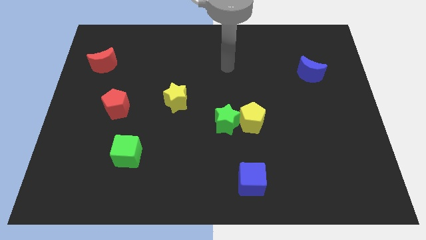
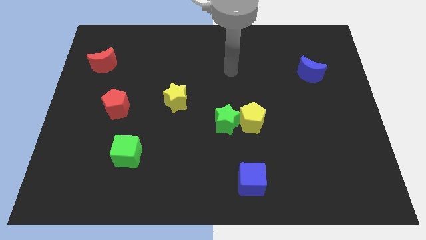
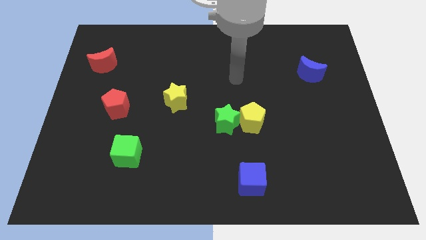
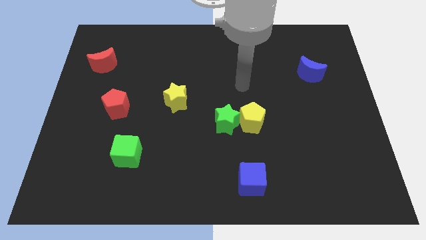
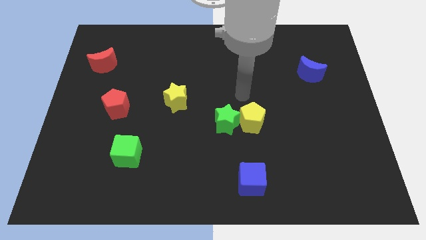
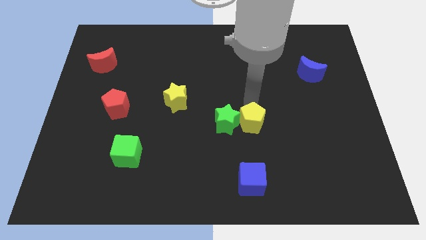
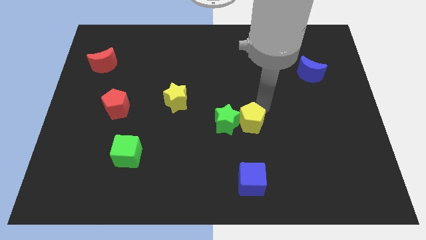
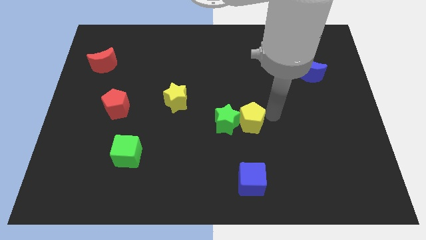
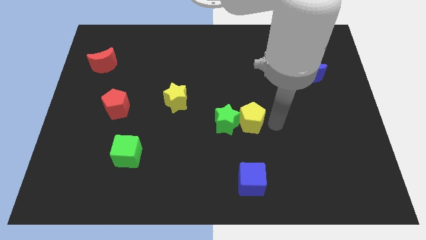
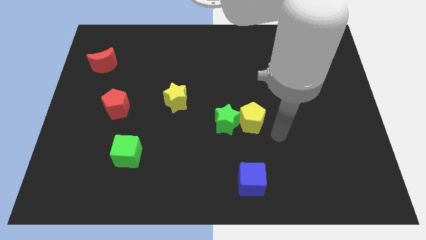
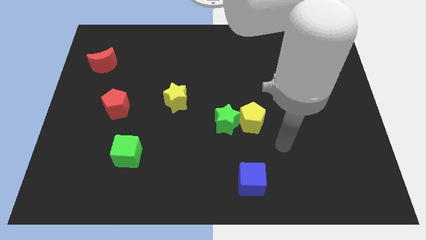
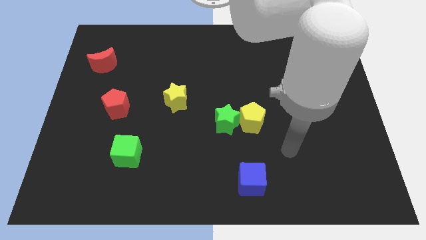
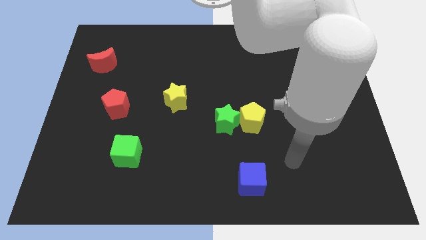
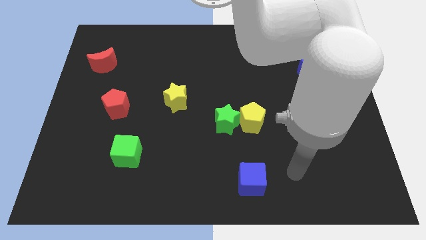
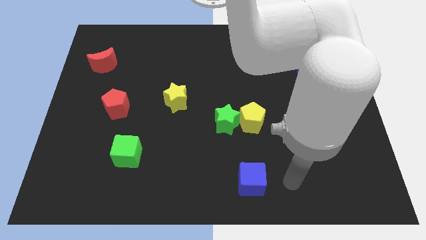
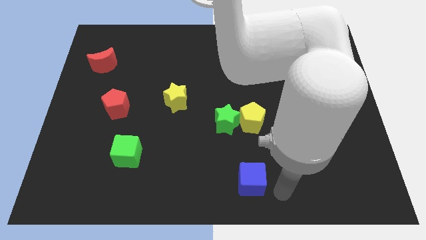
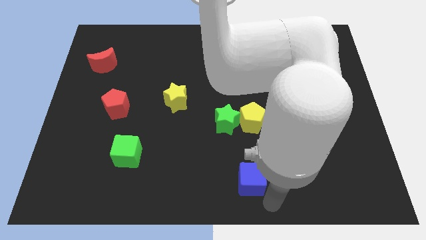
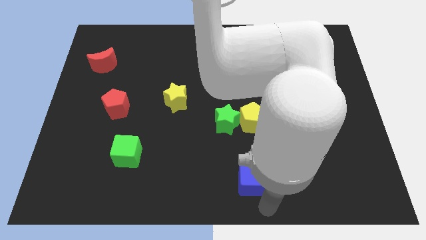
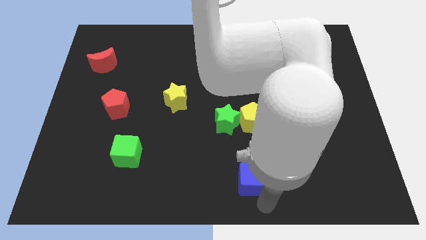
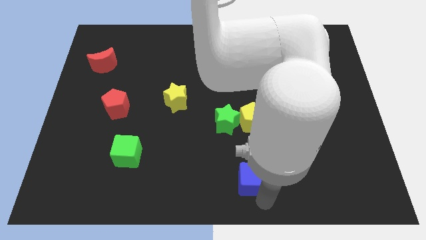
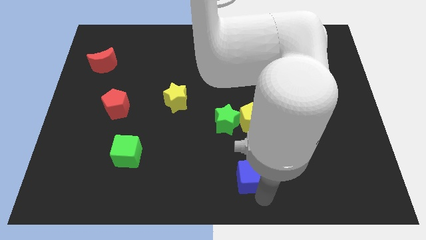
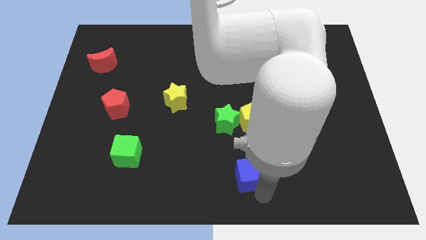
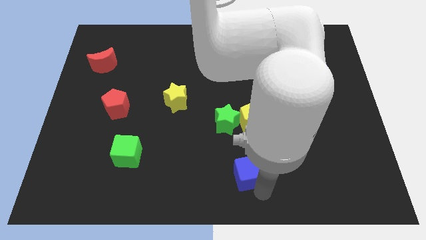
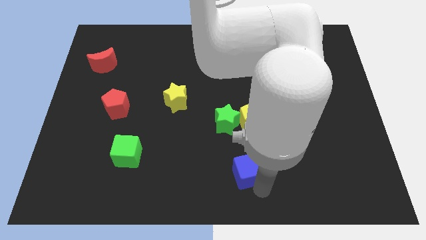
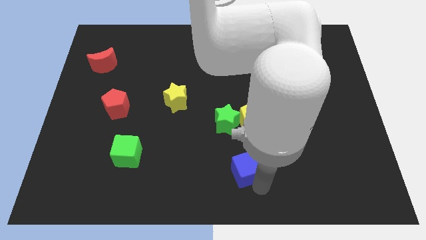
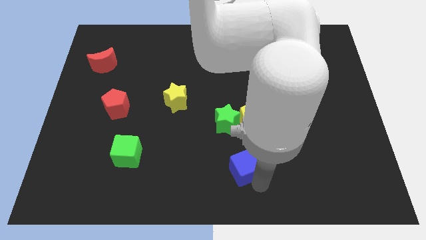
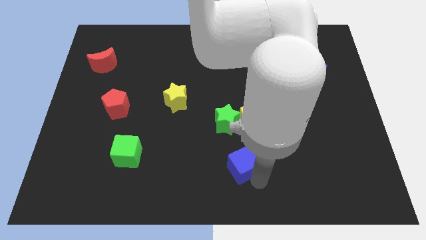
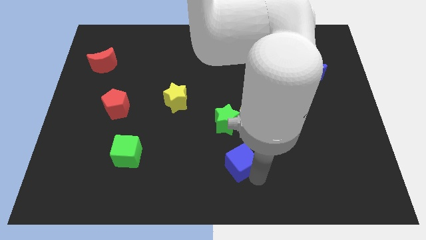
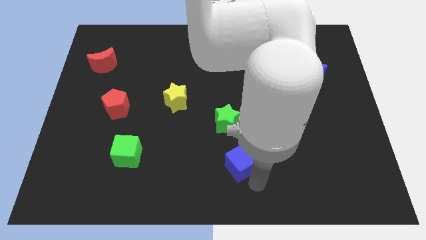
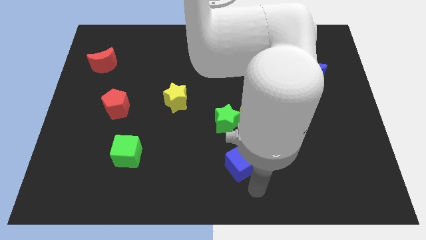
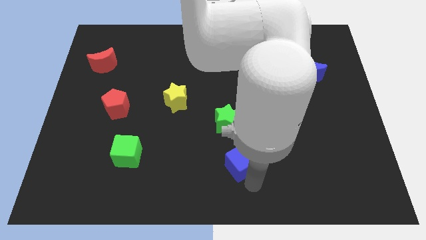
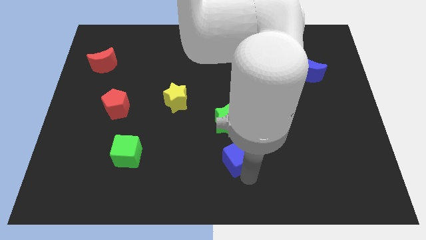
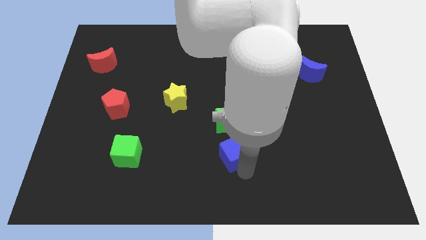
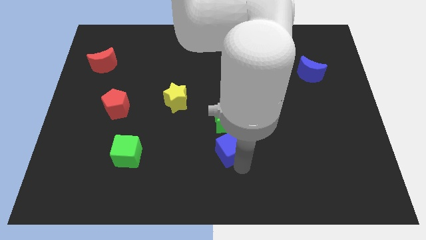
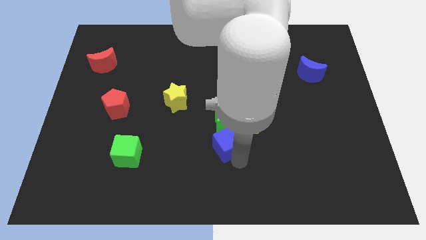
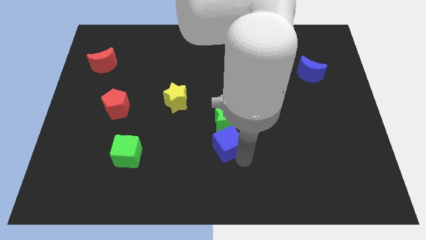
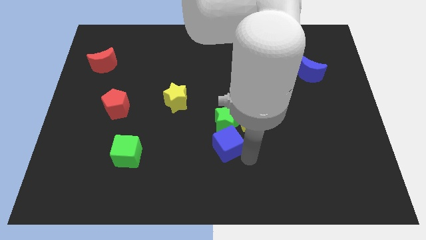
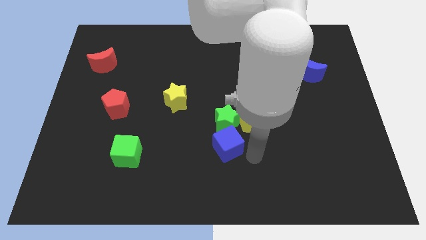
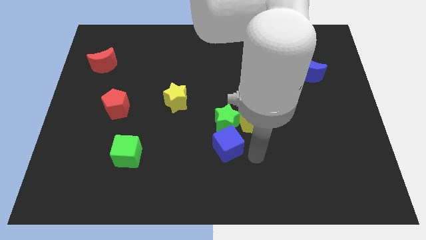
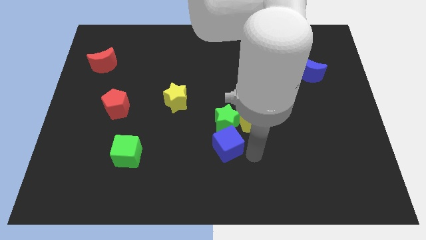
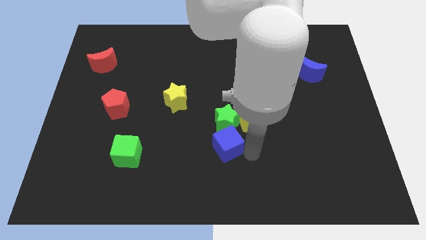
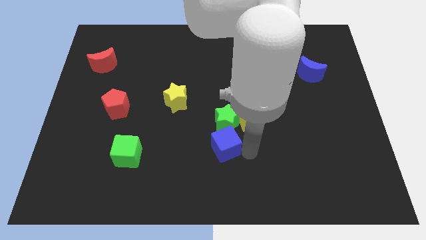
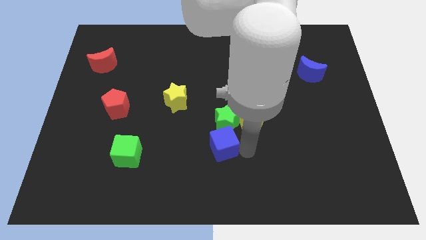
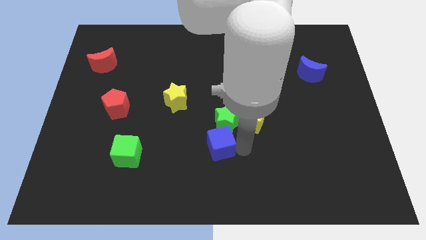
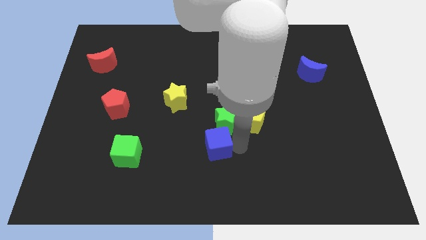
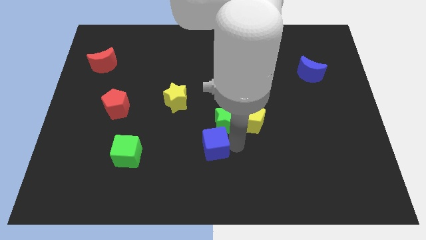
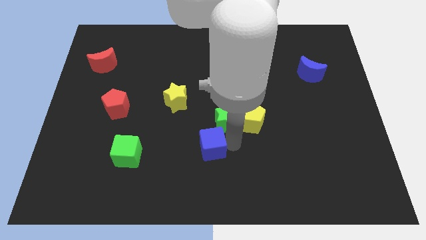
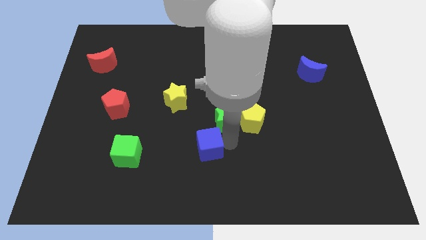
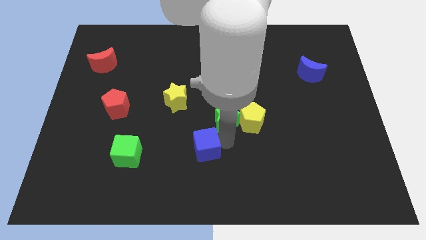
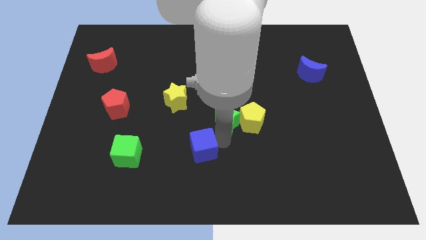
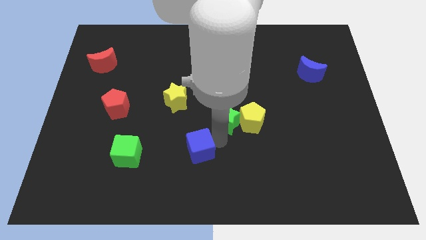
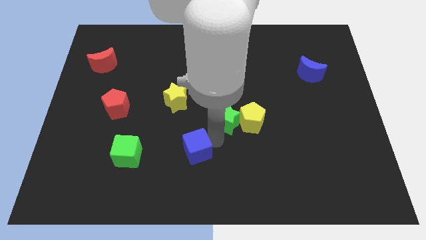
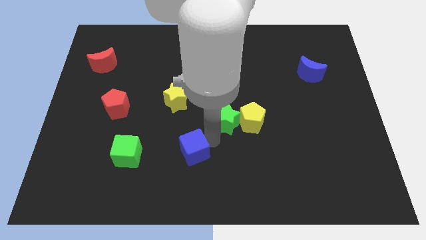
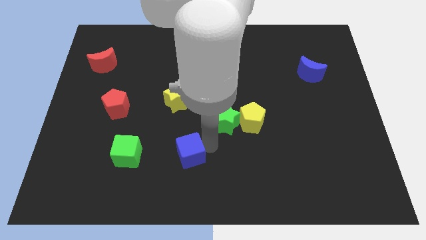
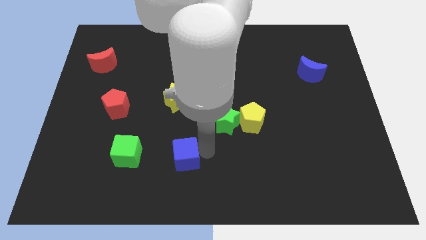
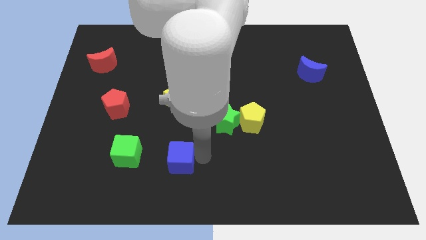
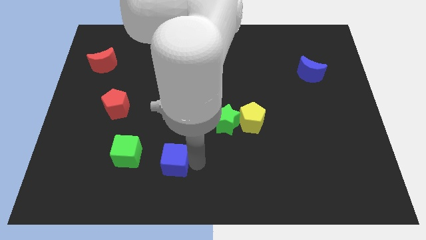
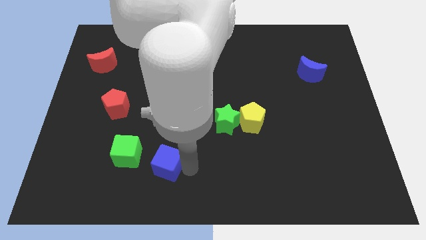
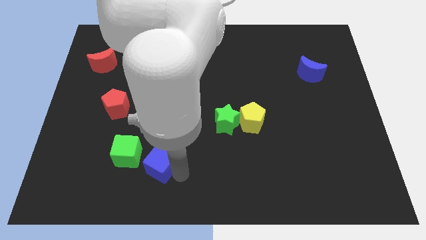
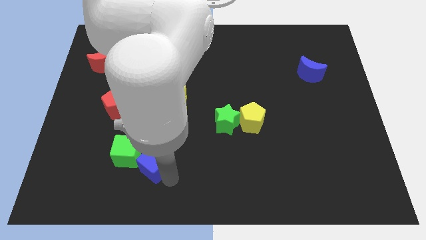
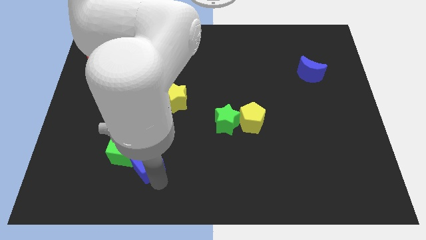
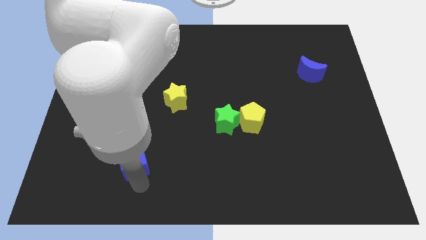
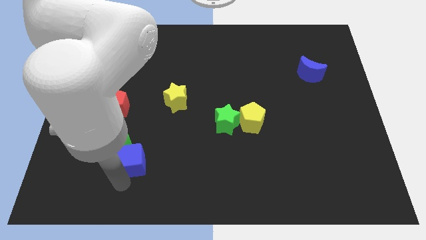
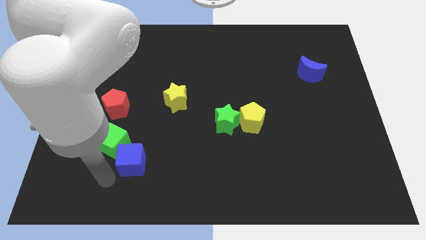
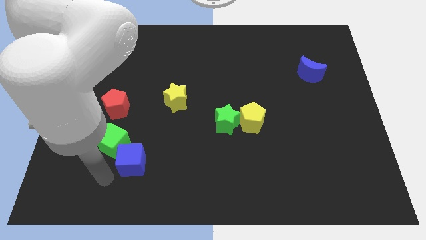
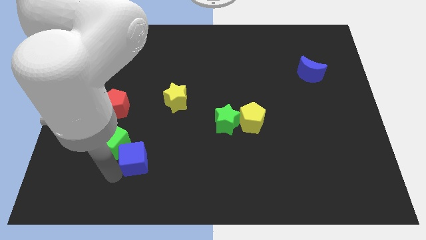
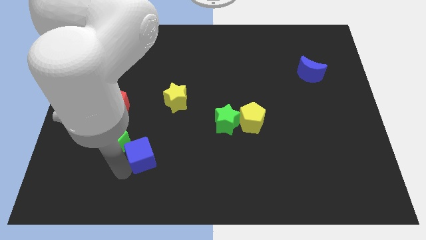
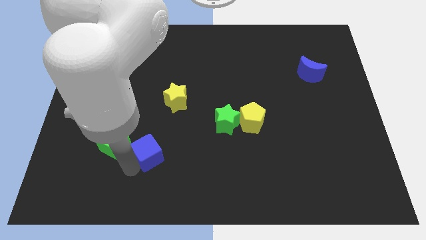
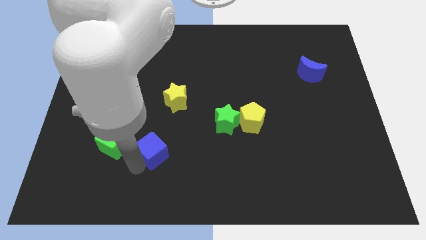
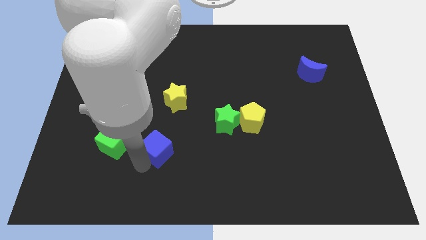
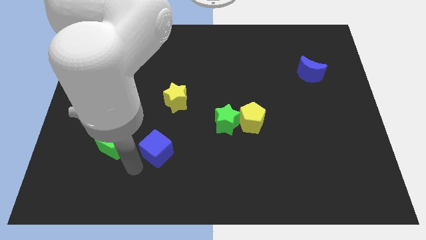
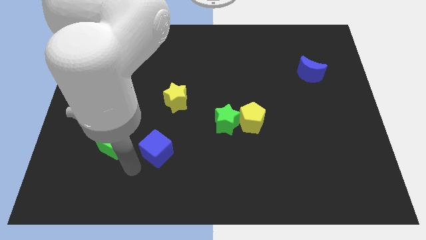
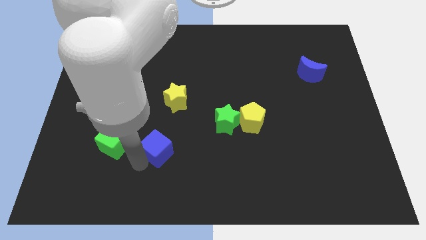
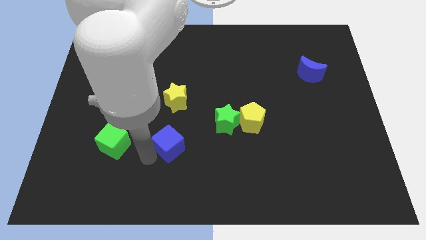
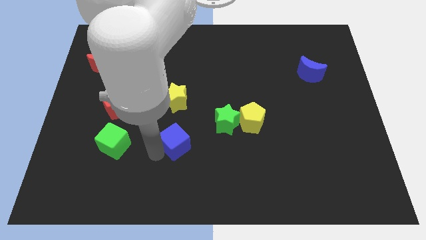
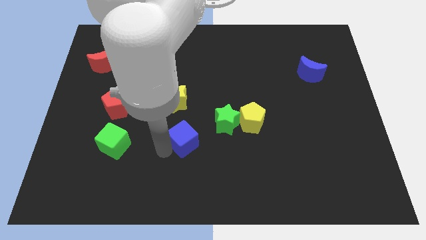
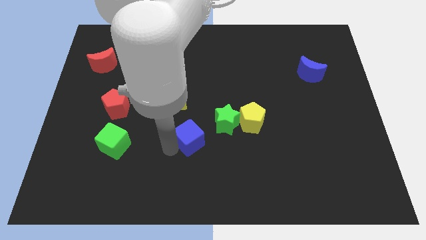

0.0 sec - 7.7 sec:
slide the blue cube to the center
